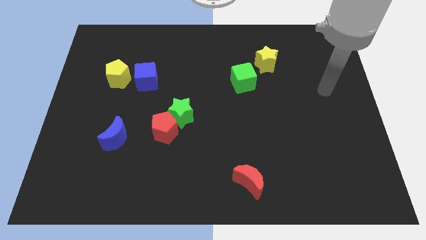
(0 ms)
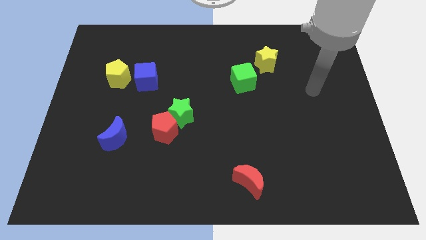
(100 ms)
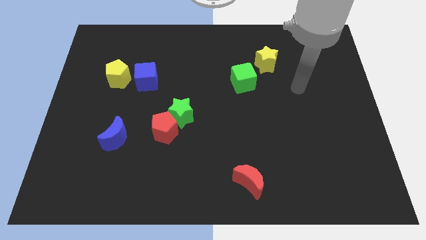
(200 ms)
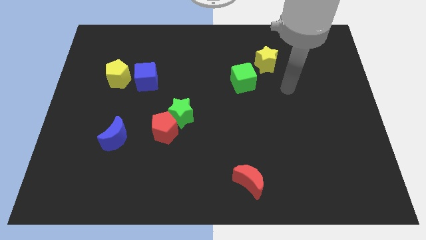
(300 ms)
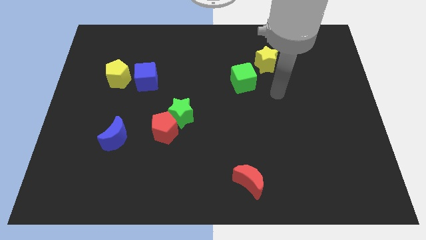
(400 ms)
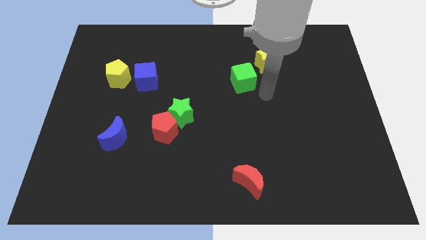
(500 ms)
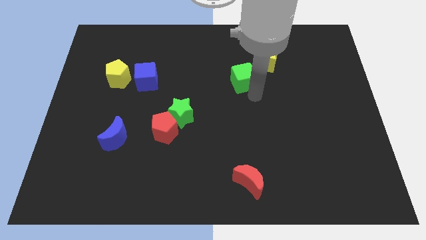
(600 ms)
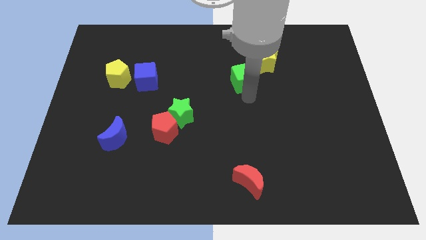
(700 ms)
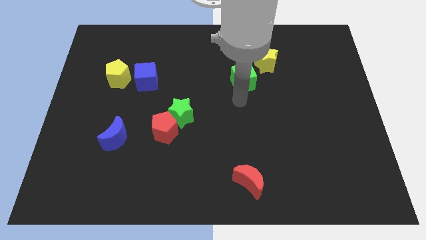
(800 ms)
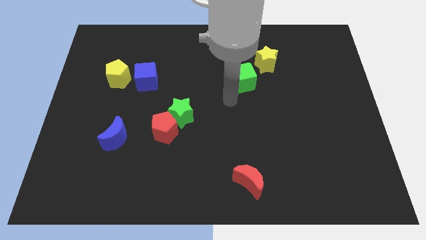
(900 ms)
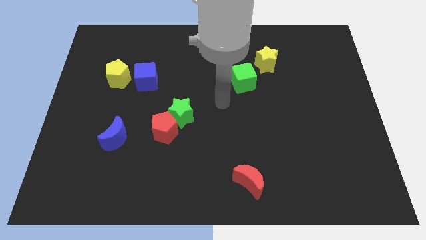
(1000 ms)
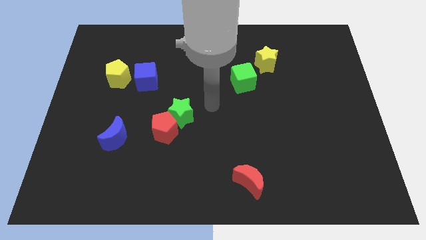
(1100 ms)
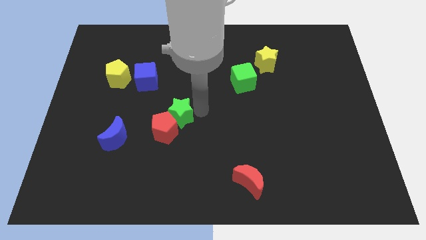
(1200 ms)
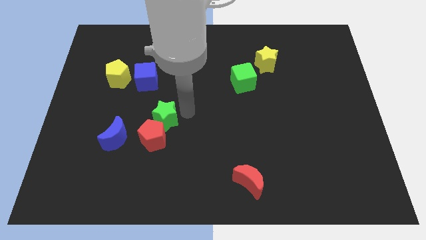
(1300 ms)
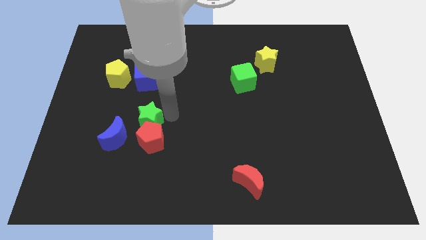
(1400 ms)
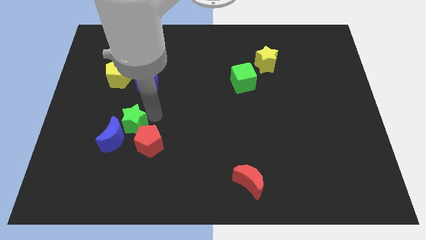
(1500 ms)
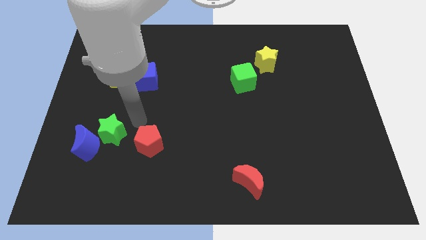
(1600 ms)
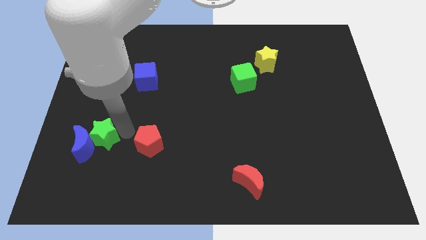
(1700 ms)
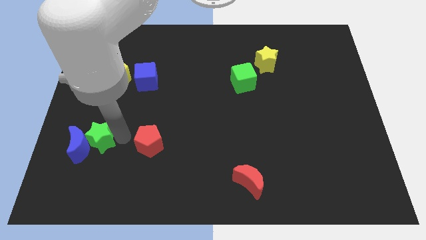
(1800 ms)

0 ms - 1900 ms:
pull the red pentagon apart from the green star

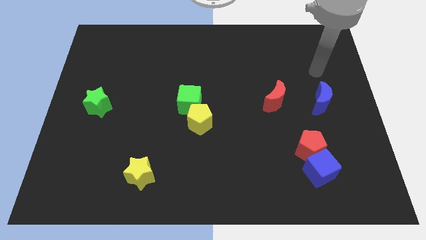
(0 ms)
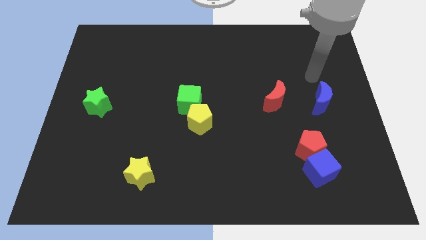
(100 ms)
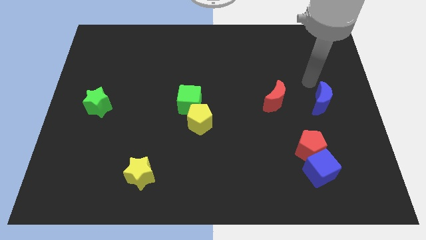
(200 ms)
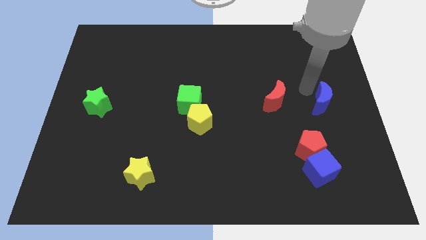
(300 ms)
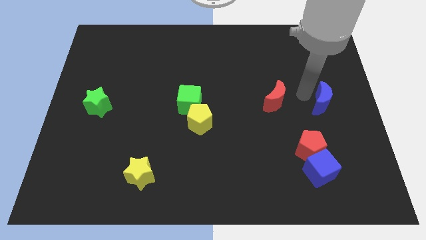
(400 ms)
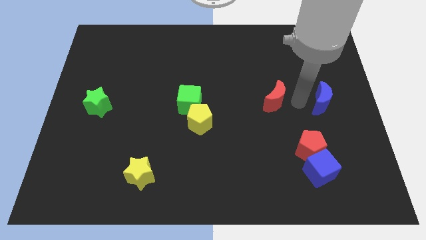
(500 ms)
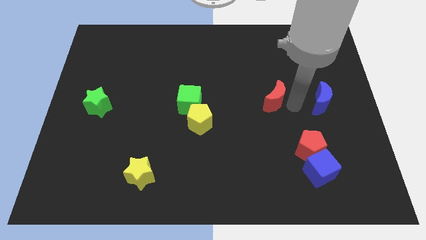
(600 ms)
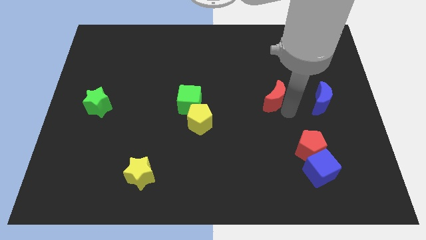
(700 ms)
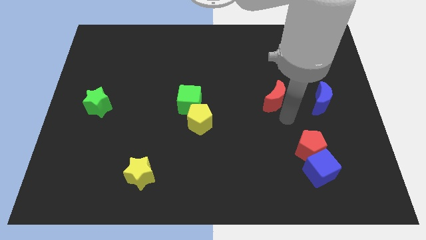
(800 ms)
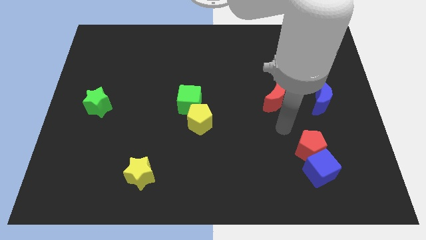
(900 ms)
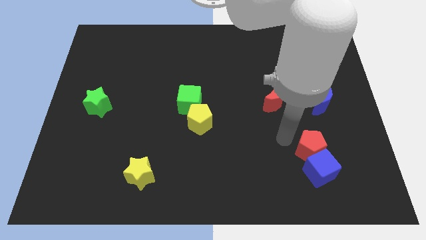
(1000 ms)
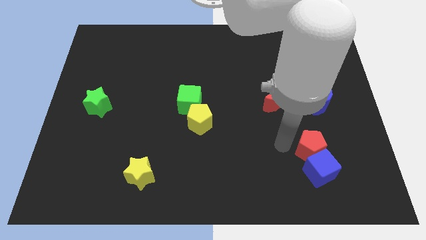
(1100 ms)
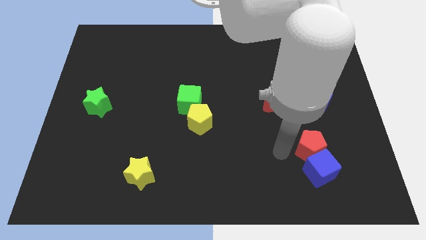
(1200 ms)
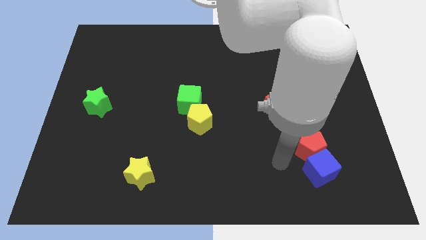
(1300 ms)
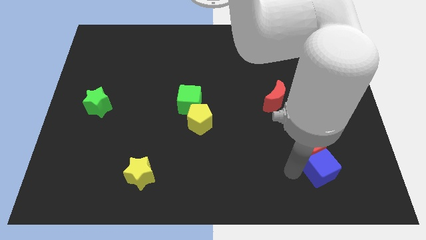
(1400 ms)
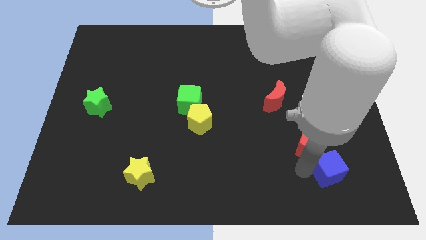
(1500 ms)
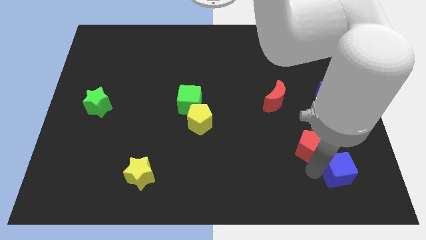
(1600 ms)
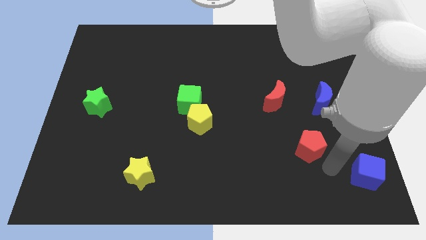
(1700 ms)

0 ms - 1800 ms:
pull the red pentagon apart from the blue cube

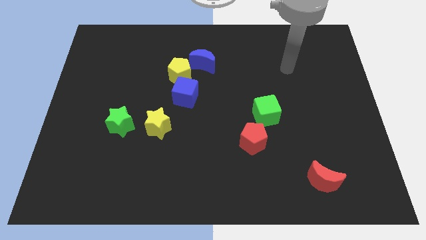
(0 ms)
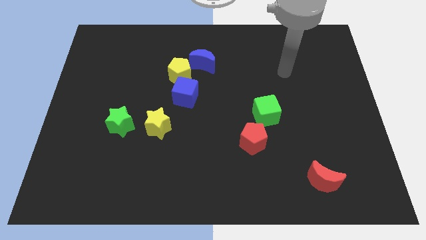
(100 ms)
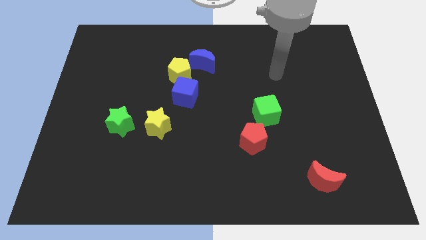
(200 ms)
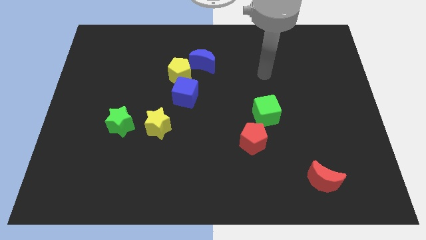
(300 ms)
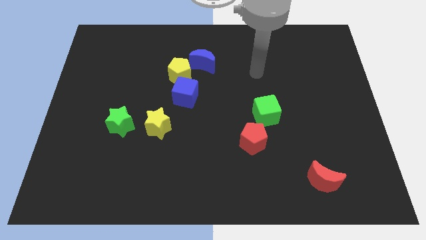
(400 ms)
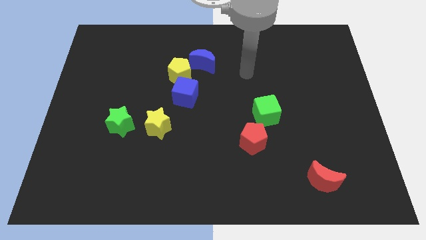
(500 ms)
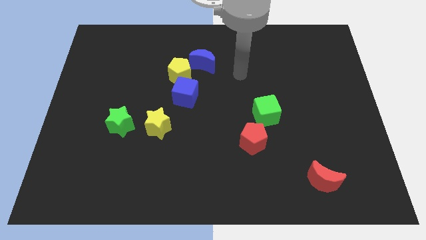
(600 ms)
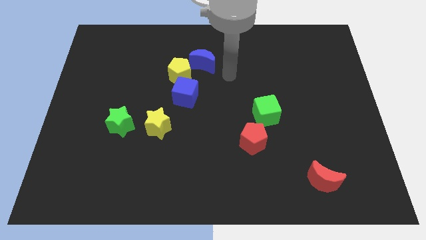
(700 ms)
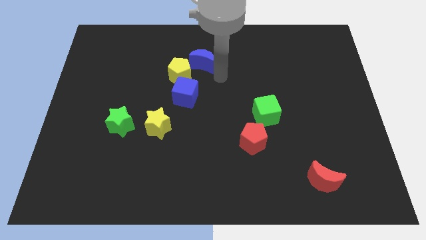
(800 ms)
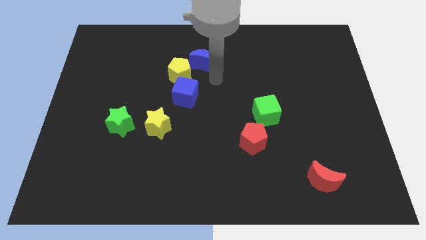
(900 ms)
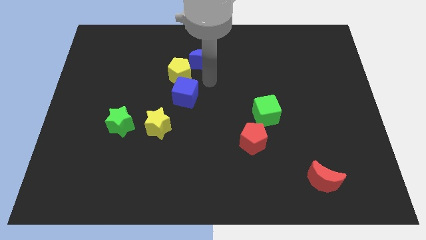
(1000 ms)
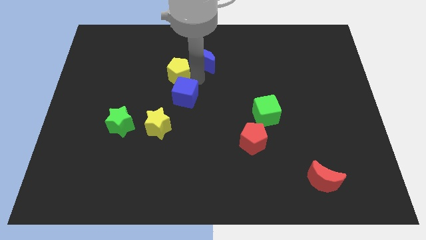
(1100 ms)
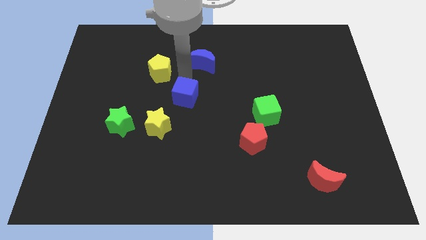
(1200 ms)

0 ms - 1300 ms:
pull the blue cube apart from the yellow pentagon

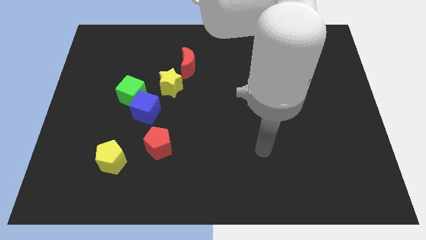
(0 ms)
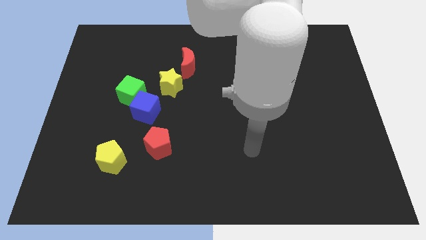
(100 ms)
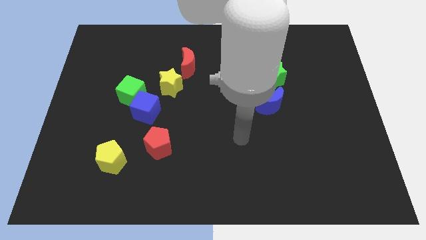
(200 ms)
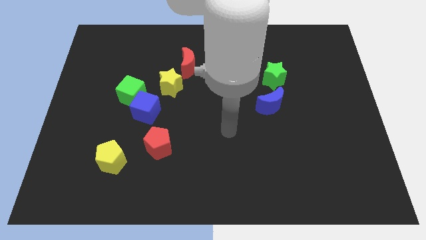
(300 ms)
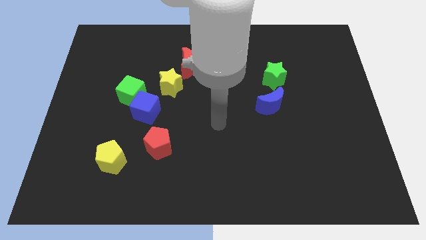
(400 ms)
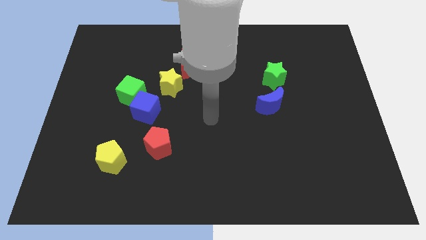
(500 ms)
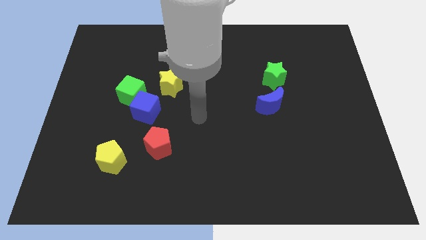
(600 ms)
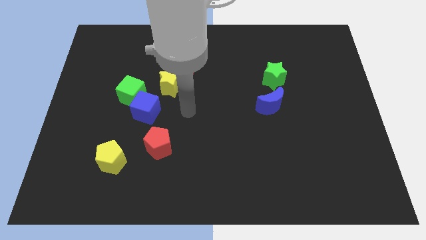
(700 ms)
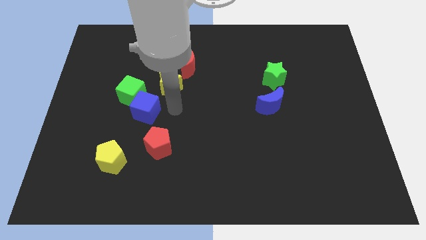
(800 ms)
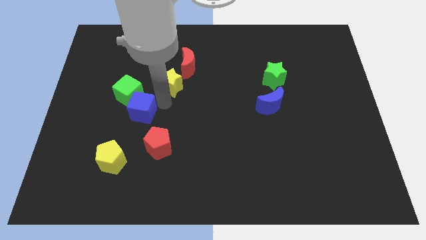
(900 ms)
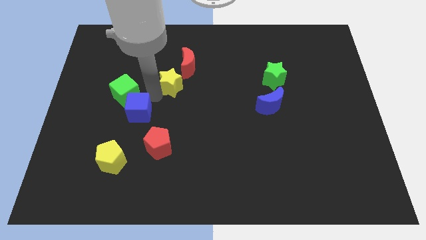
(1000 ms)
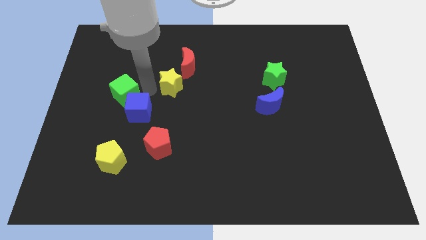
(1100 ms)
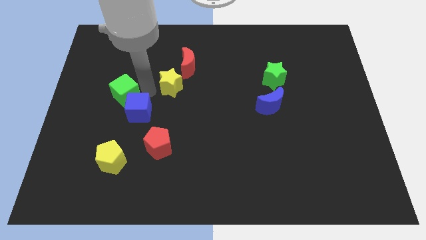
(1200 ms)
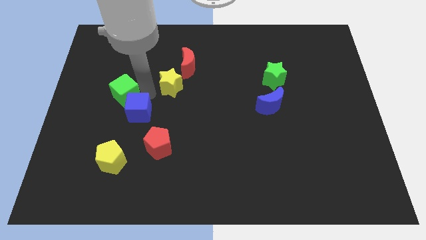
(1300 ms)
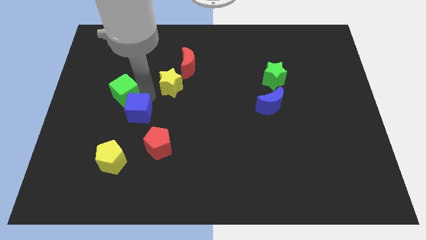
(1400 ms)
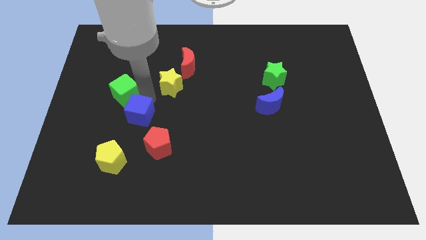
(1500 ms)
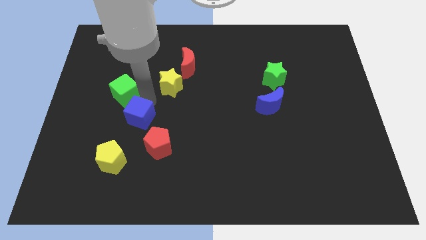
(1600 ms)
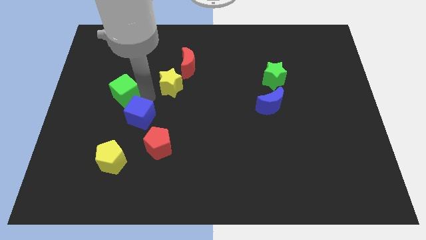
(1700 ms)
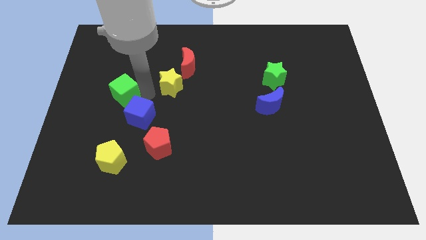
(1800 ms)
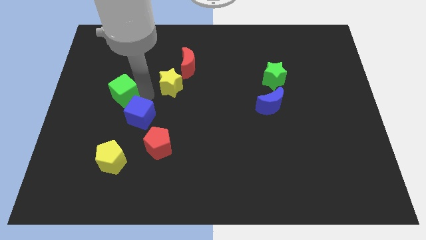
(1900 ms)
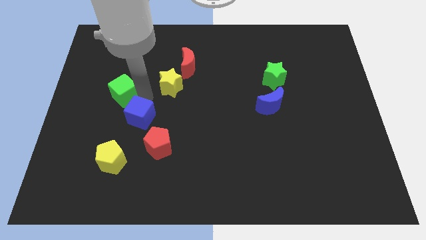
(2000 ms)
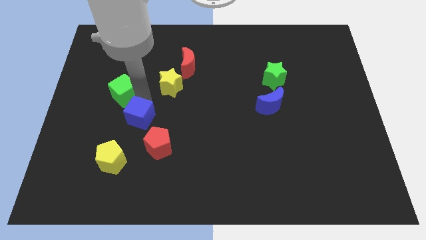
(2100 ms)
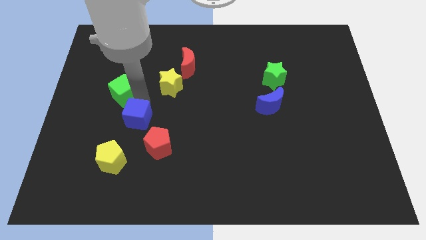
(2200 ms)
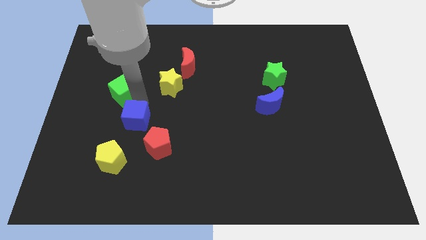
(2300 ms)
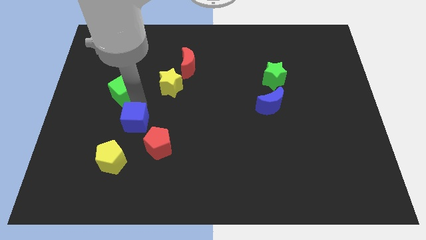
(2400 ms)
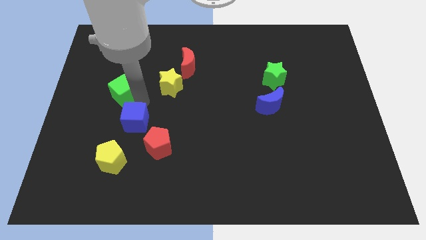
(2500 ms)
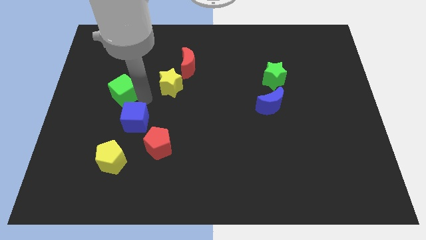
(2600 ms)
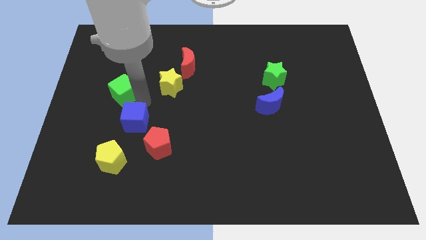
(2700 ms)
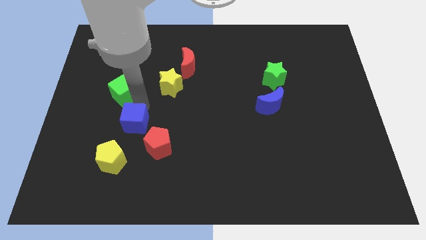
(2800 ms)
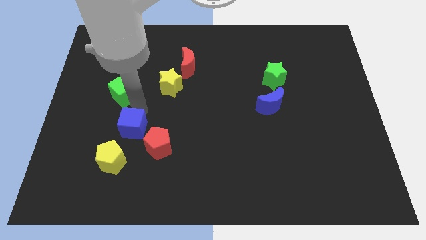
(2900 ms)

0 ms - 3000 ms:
pull the blue cube apart from the green cube and yellow star

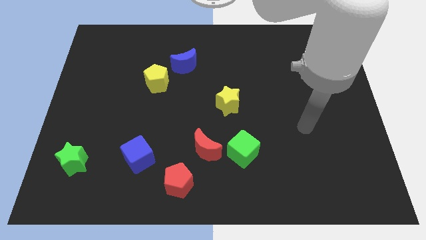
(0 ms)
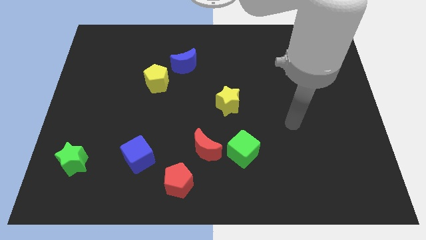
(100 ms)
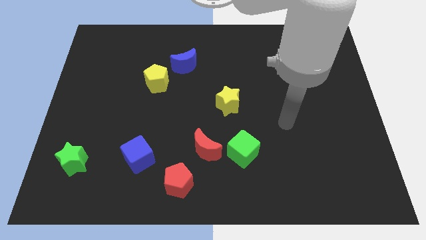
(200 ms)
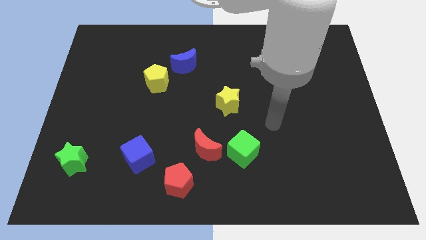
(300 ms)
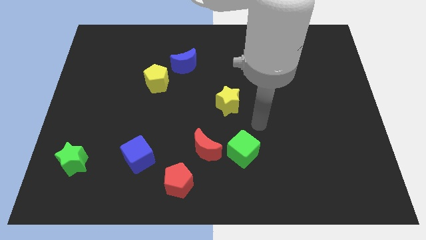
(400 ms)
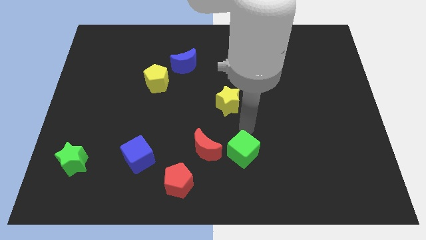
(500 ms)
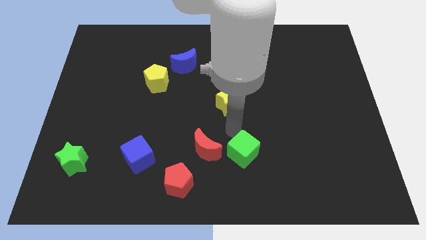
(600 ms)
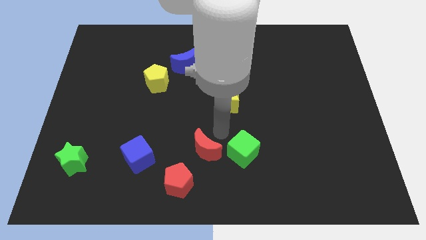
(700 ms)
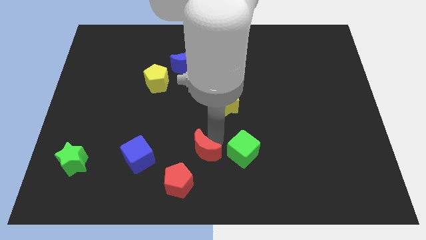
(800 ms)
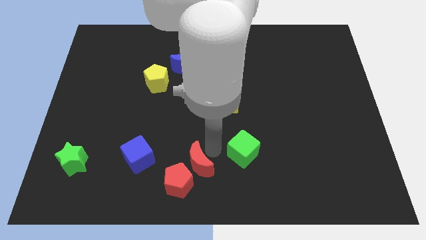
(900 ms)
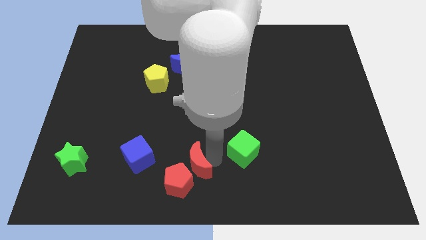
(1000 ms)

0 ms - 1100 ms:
separate the green cube from the red moon

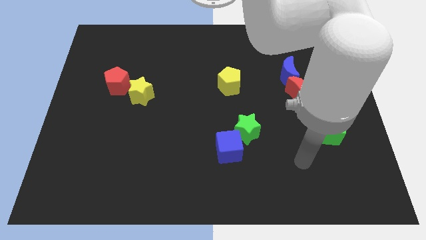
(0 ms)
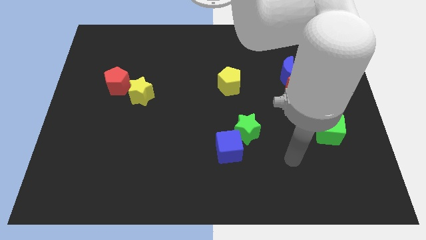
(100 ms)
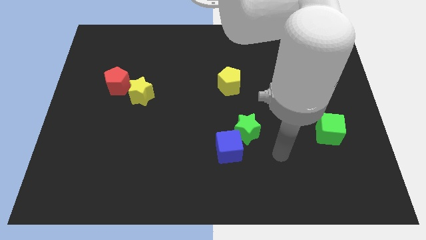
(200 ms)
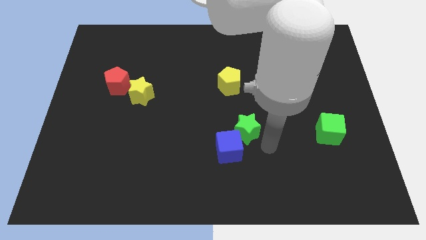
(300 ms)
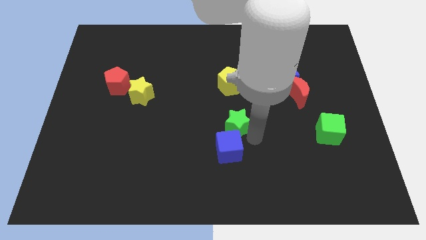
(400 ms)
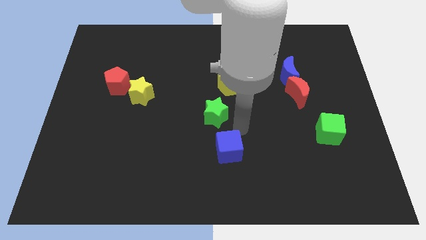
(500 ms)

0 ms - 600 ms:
pull the blue cube apart from the green star
